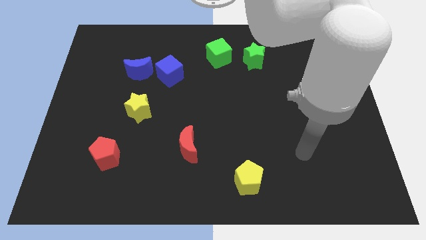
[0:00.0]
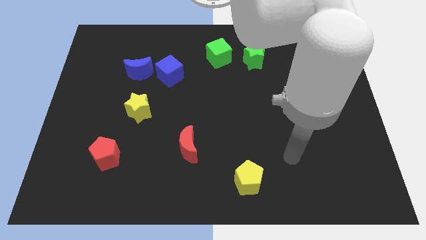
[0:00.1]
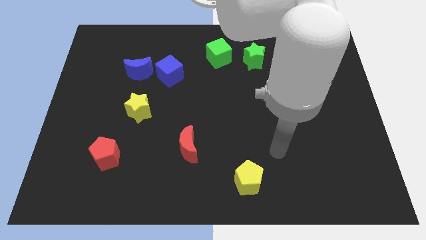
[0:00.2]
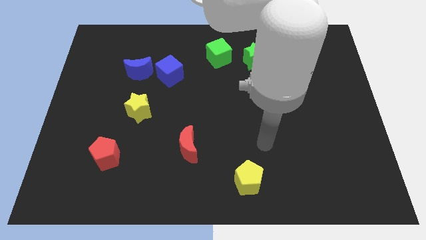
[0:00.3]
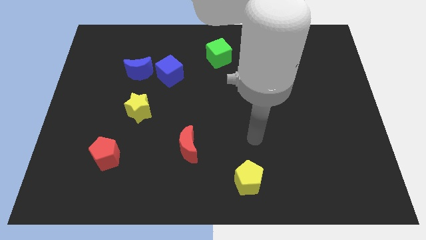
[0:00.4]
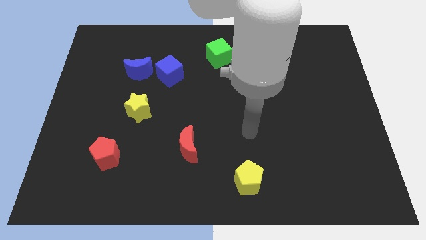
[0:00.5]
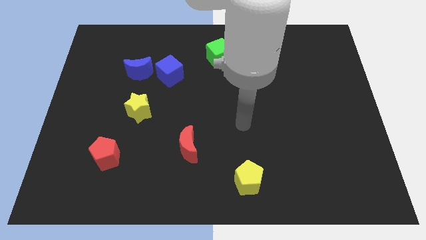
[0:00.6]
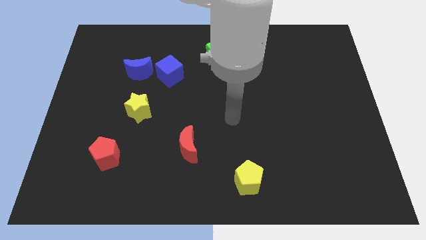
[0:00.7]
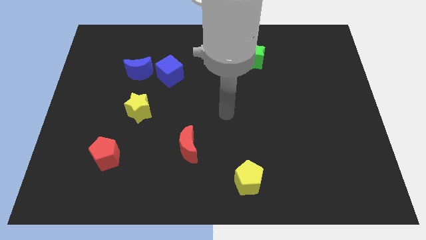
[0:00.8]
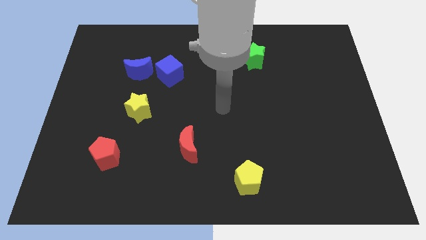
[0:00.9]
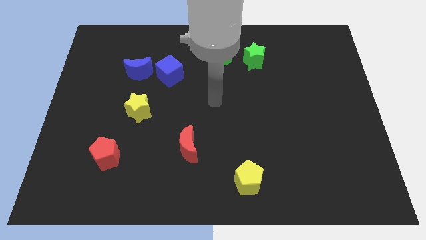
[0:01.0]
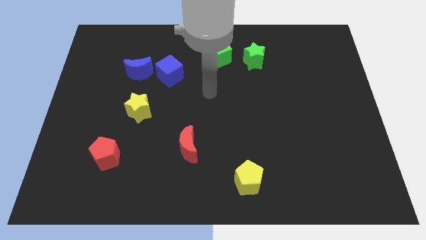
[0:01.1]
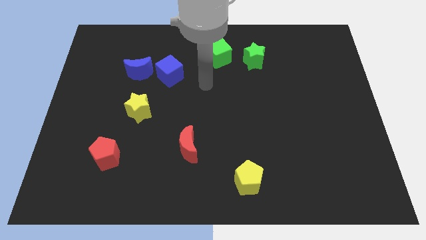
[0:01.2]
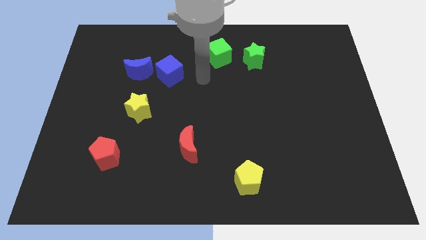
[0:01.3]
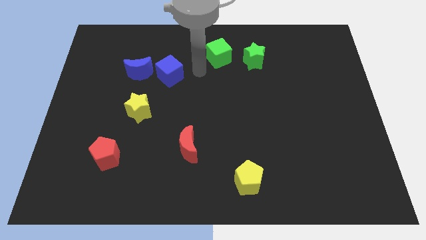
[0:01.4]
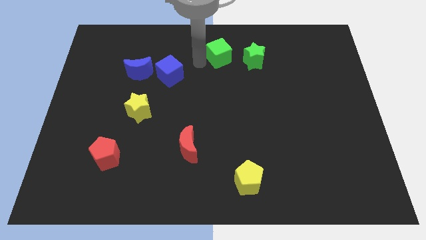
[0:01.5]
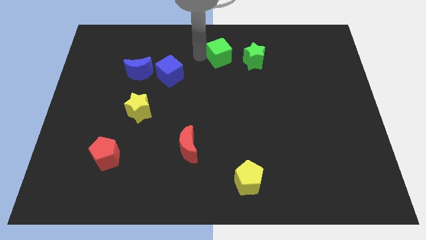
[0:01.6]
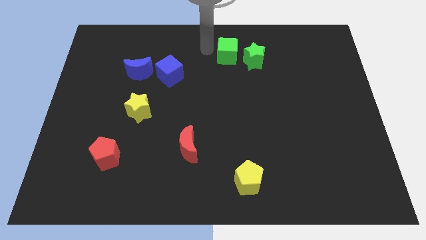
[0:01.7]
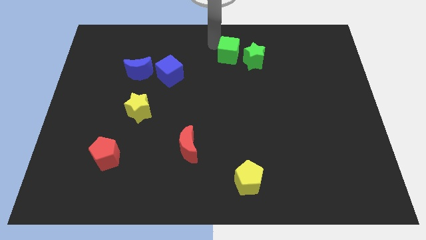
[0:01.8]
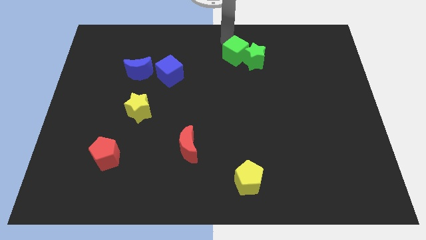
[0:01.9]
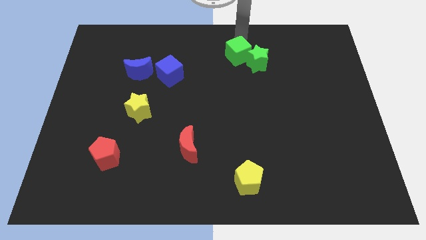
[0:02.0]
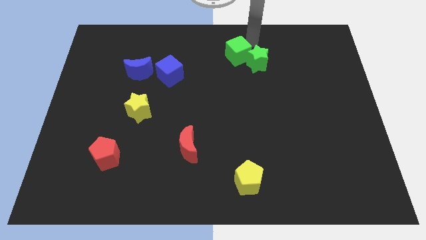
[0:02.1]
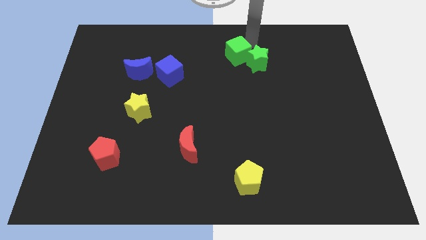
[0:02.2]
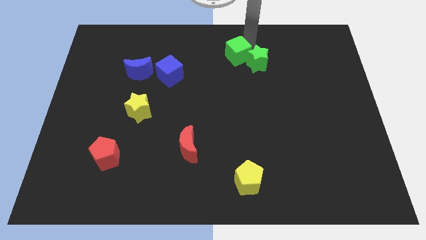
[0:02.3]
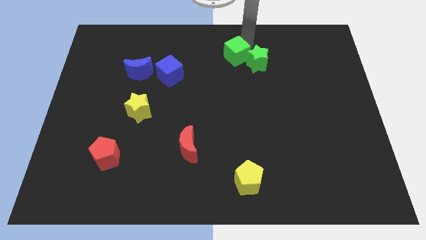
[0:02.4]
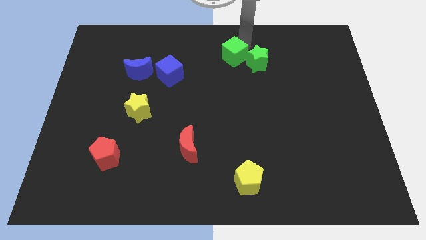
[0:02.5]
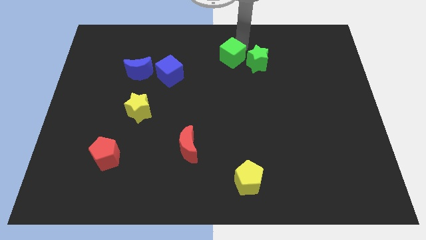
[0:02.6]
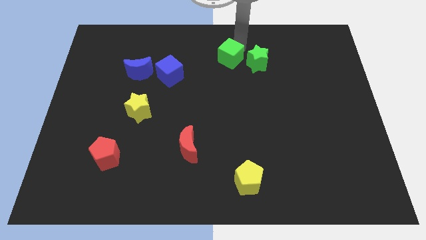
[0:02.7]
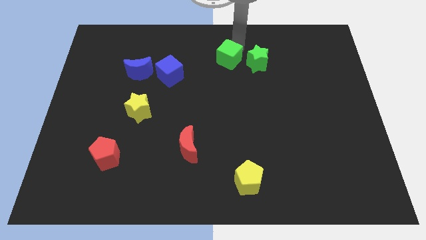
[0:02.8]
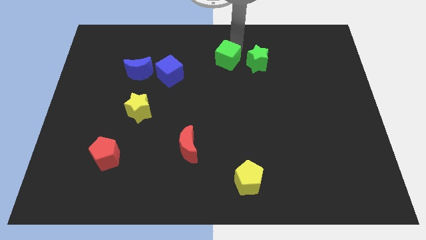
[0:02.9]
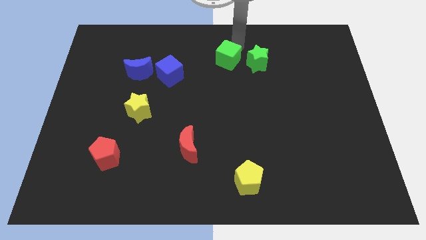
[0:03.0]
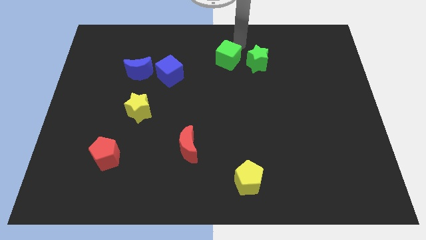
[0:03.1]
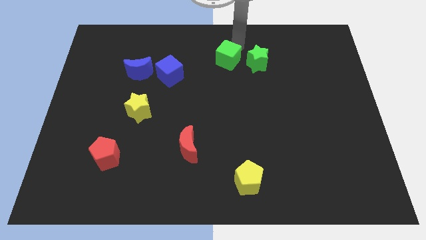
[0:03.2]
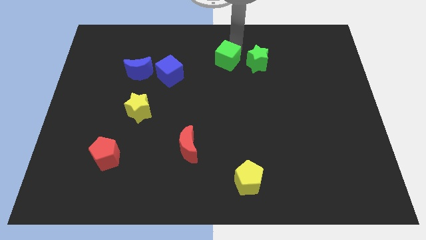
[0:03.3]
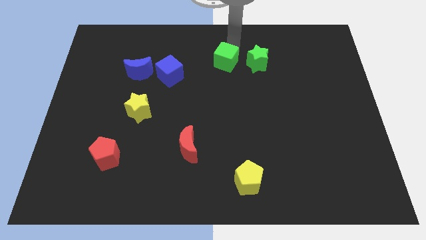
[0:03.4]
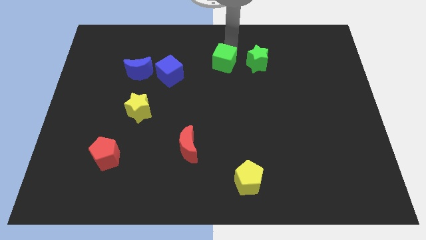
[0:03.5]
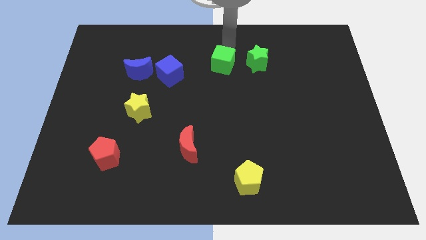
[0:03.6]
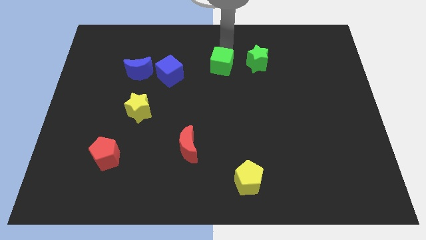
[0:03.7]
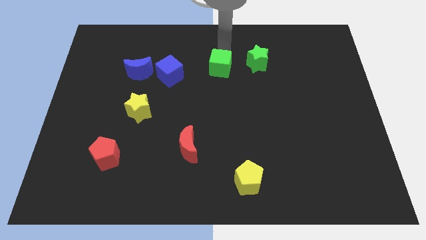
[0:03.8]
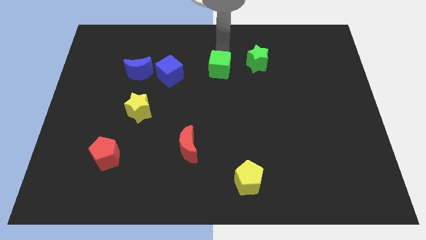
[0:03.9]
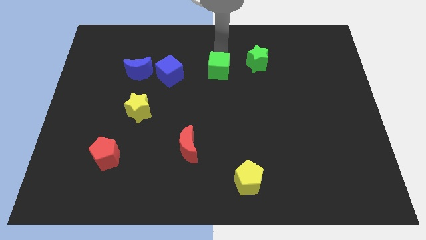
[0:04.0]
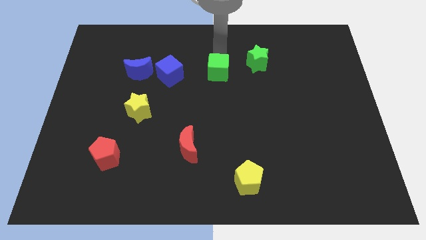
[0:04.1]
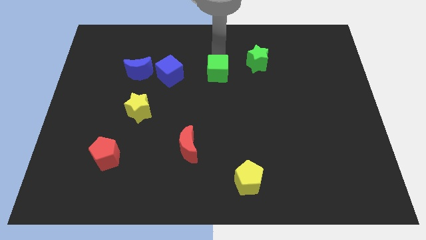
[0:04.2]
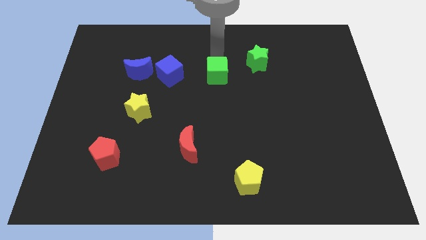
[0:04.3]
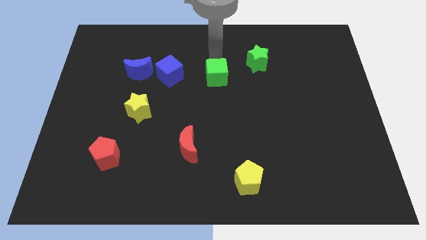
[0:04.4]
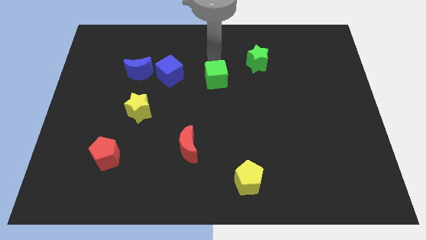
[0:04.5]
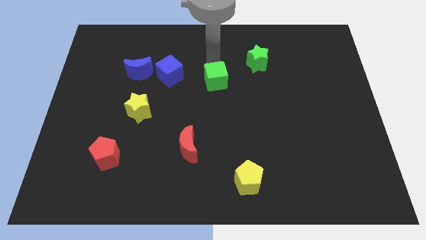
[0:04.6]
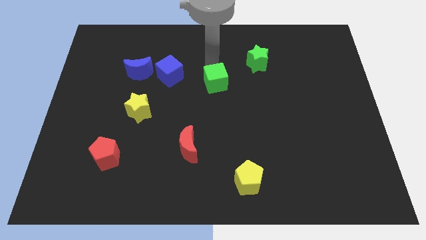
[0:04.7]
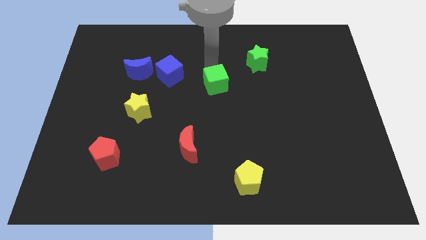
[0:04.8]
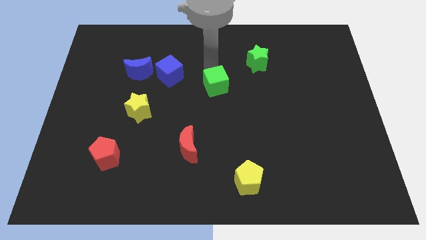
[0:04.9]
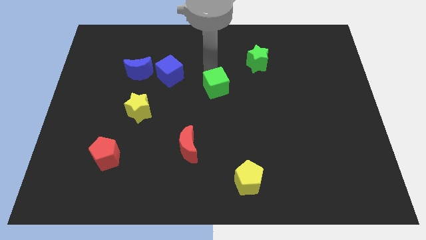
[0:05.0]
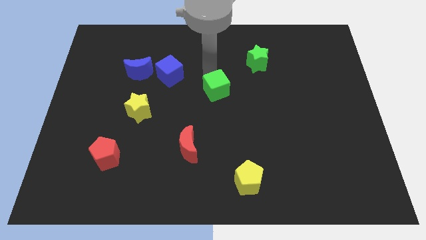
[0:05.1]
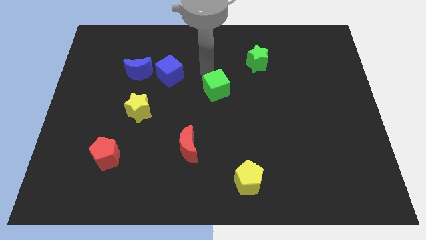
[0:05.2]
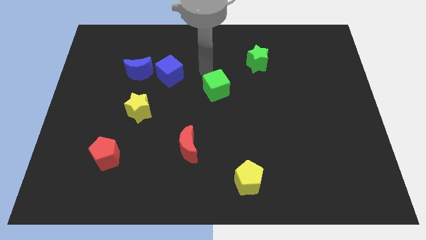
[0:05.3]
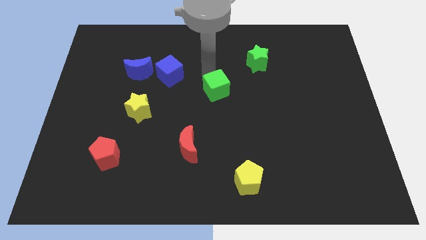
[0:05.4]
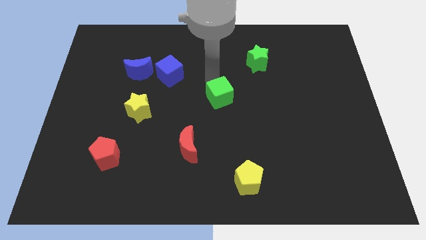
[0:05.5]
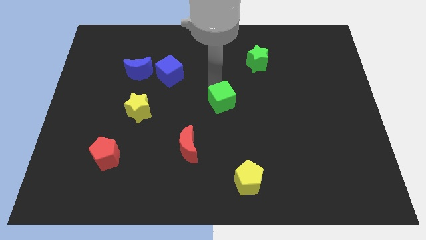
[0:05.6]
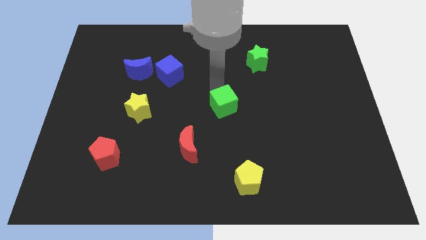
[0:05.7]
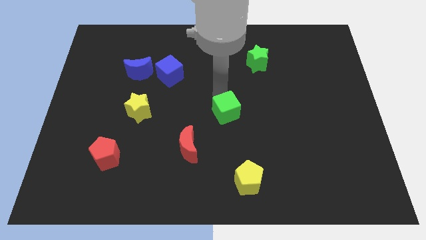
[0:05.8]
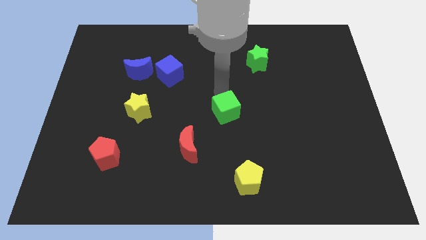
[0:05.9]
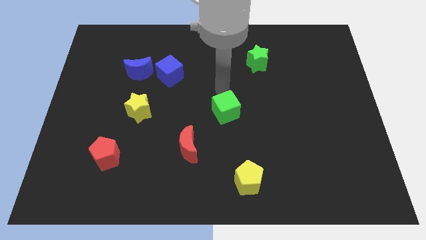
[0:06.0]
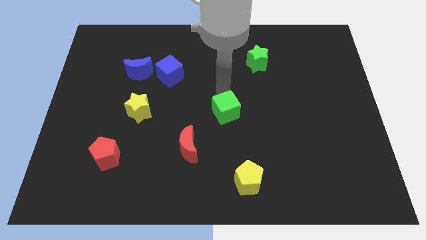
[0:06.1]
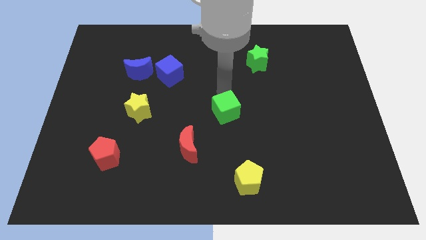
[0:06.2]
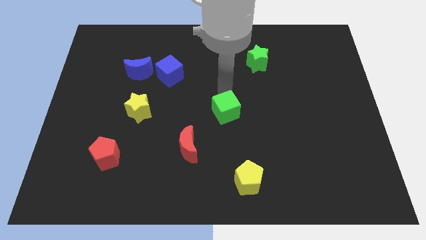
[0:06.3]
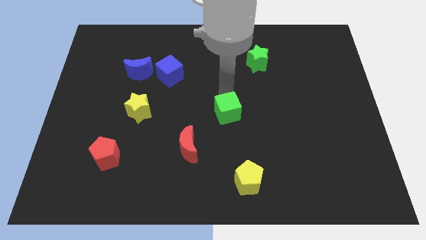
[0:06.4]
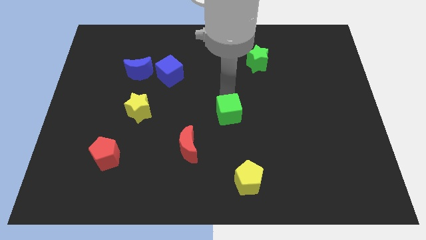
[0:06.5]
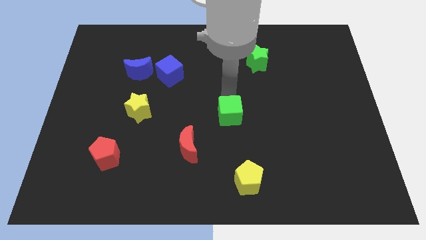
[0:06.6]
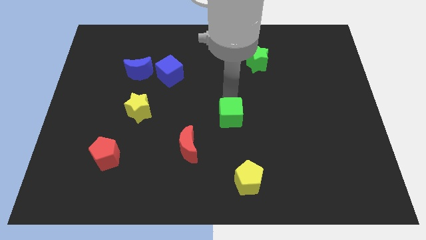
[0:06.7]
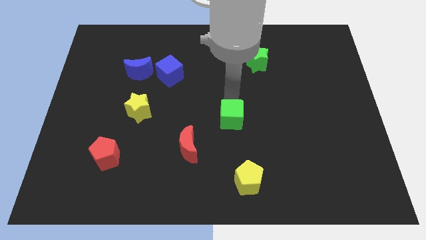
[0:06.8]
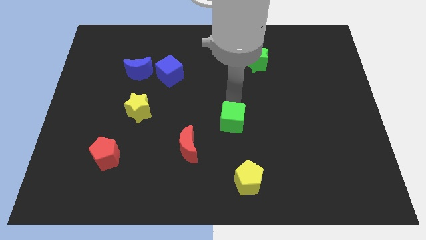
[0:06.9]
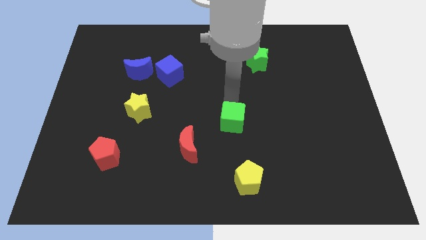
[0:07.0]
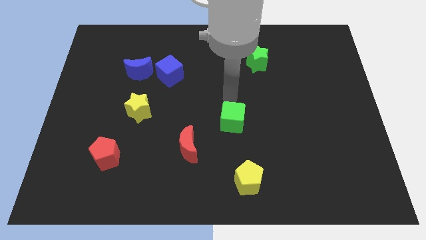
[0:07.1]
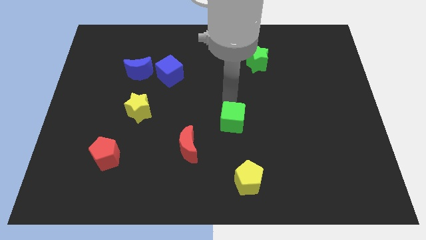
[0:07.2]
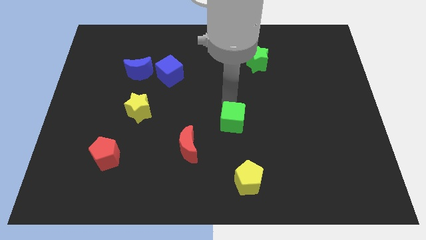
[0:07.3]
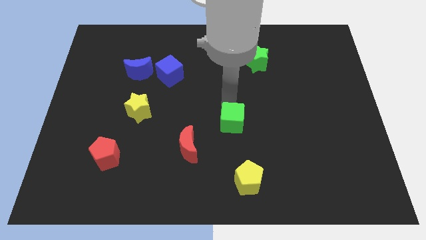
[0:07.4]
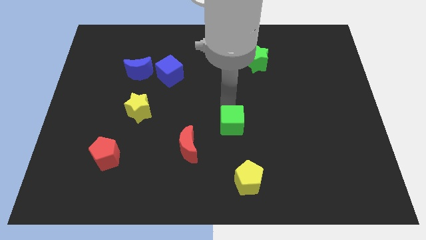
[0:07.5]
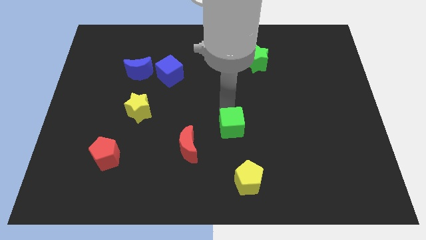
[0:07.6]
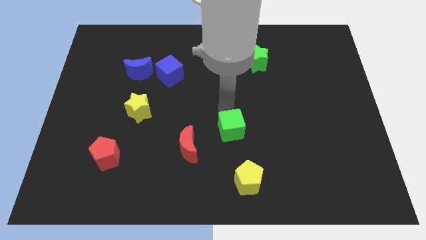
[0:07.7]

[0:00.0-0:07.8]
push the green cube just right of the red moon

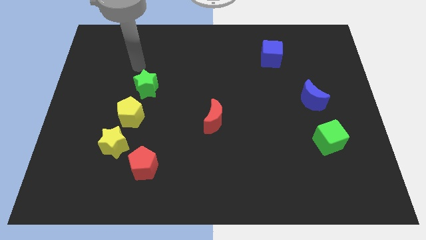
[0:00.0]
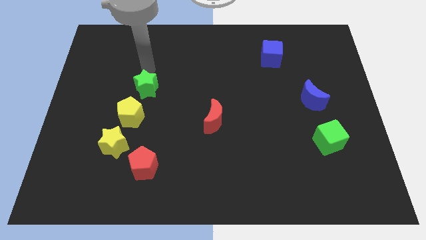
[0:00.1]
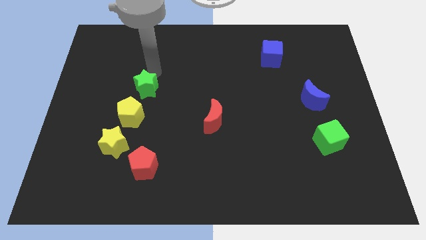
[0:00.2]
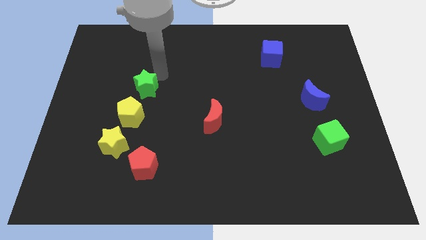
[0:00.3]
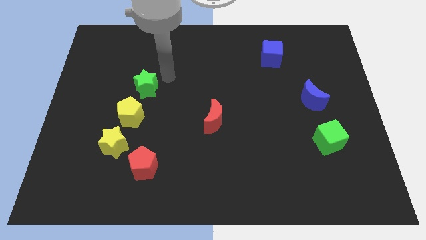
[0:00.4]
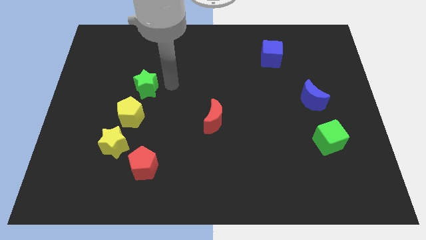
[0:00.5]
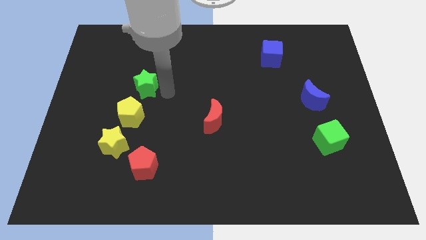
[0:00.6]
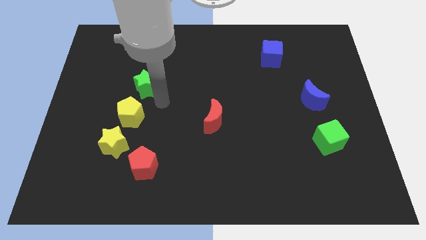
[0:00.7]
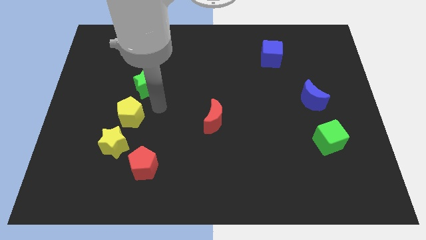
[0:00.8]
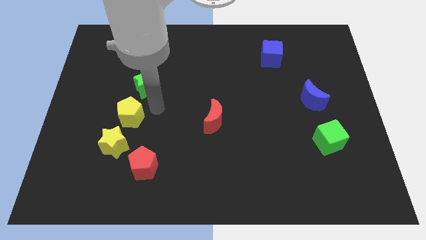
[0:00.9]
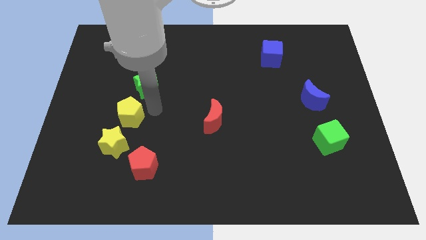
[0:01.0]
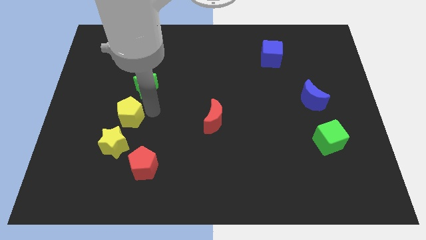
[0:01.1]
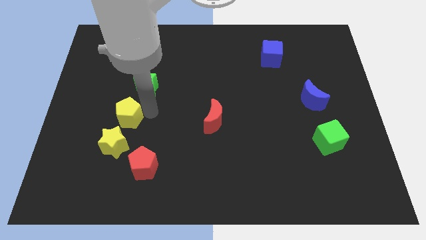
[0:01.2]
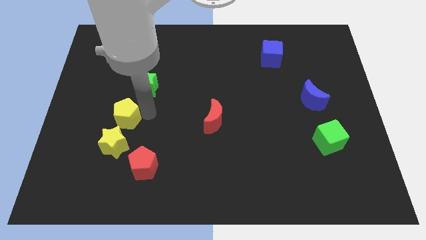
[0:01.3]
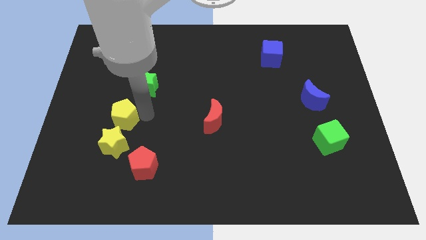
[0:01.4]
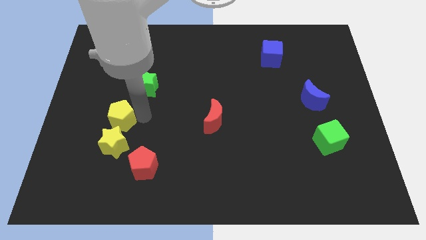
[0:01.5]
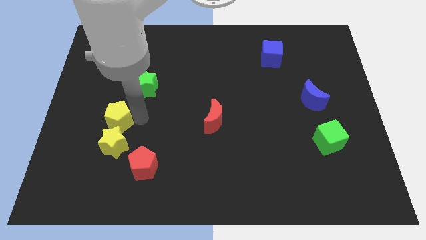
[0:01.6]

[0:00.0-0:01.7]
push the yellow pentagon to the top left of the yellow star
